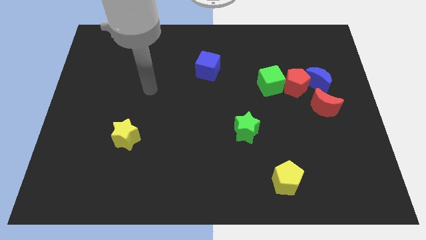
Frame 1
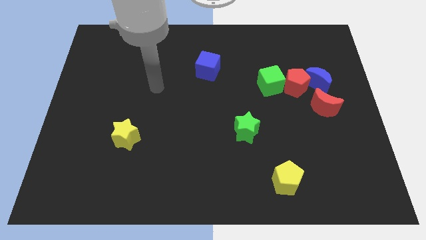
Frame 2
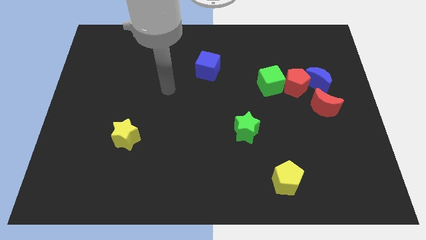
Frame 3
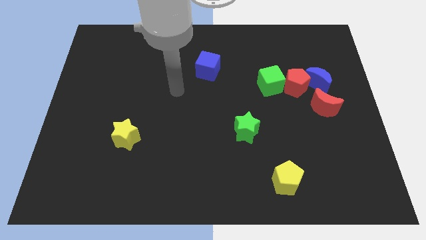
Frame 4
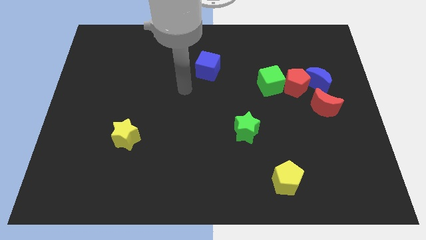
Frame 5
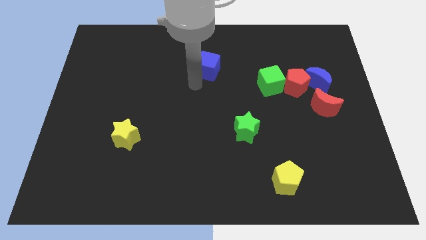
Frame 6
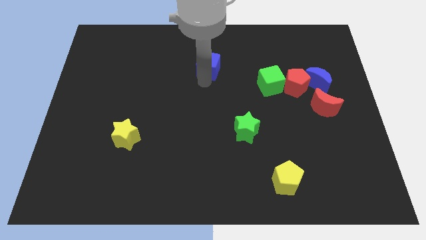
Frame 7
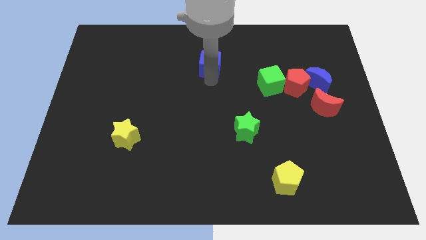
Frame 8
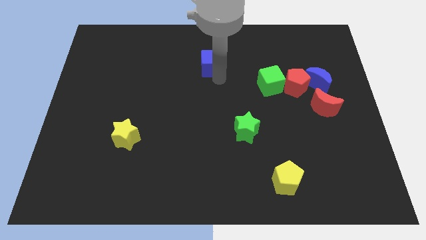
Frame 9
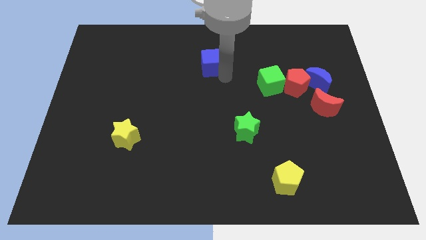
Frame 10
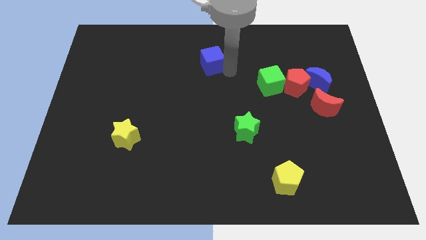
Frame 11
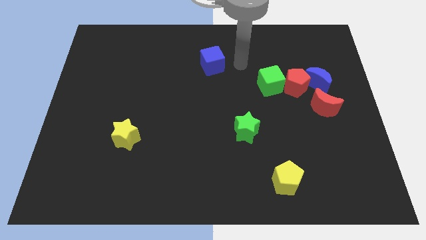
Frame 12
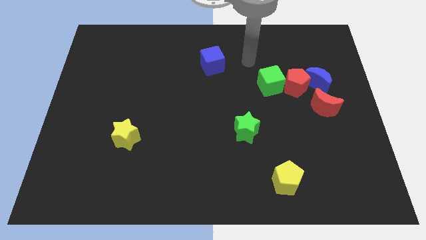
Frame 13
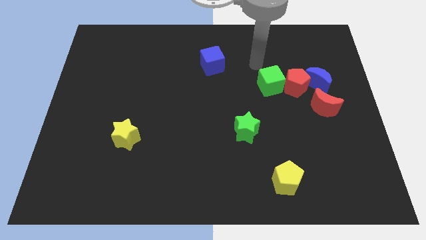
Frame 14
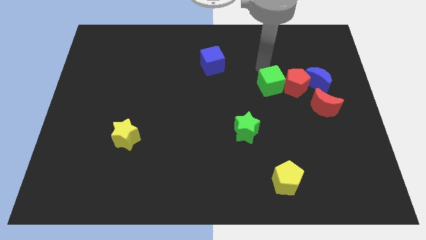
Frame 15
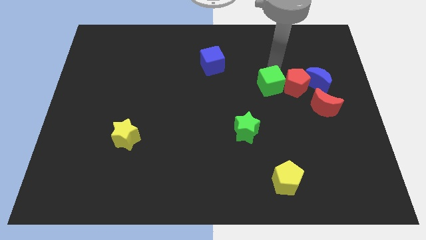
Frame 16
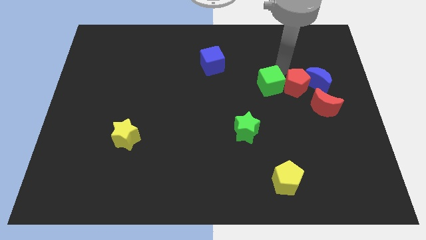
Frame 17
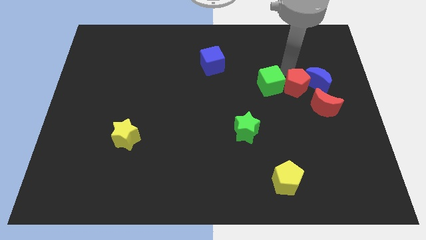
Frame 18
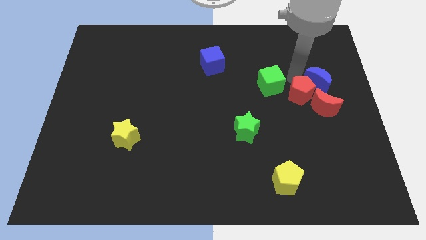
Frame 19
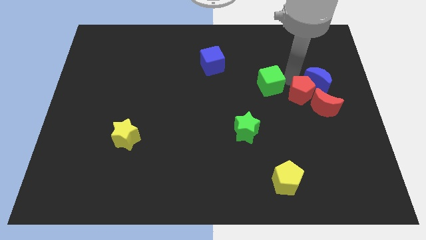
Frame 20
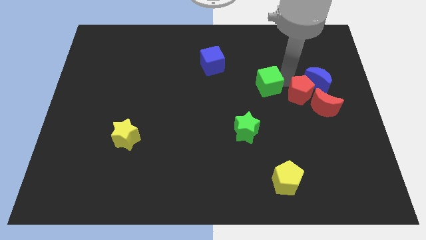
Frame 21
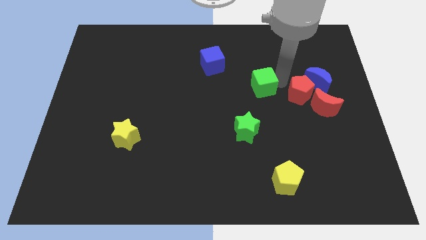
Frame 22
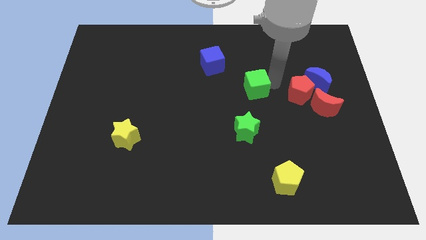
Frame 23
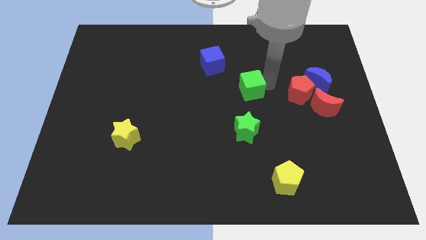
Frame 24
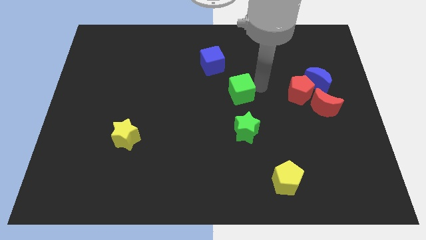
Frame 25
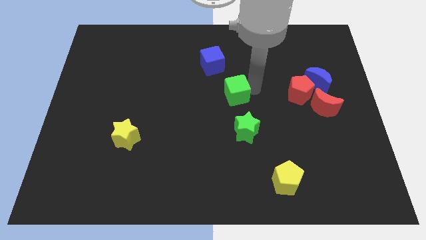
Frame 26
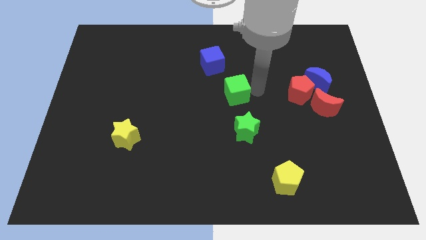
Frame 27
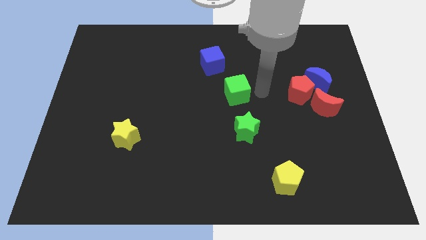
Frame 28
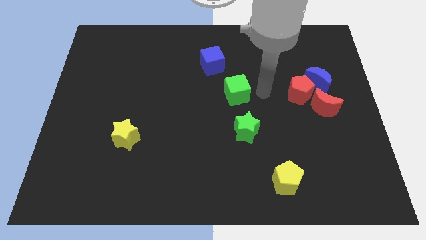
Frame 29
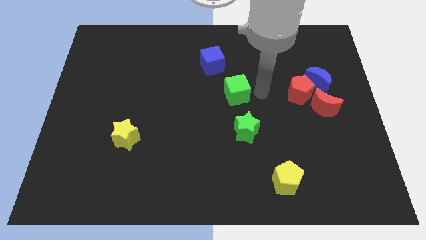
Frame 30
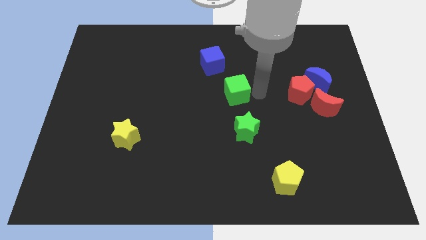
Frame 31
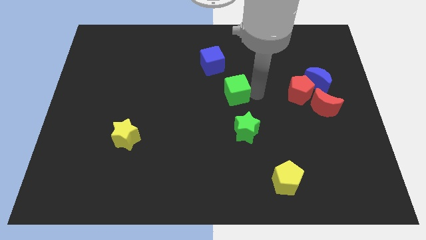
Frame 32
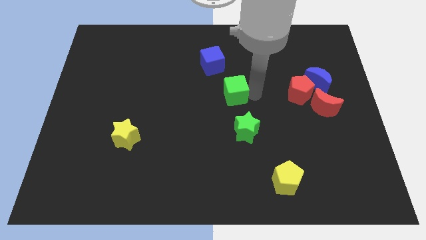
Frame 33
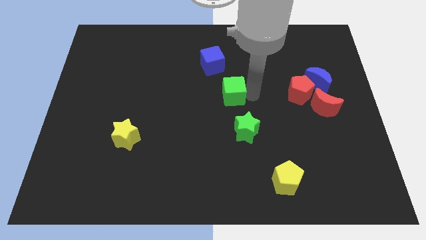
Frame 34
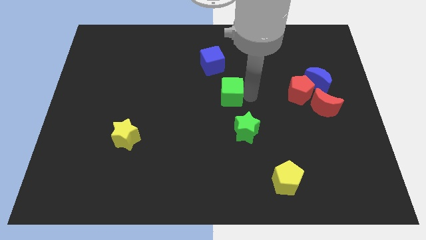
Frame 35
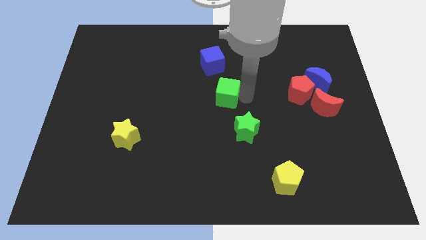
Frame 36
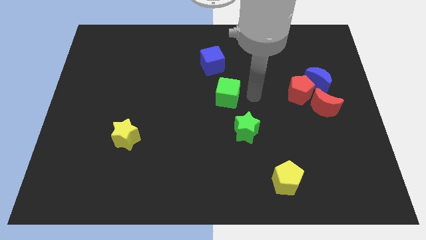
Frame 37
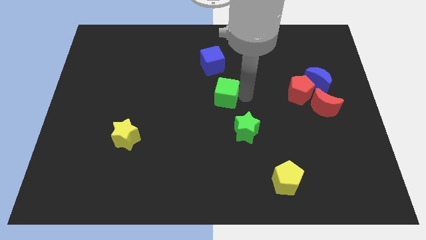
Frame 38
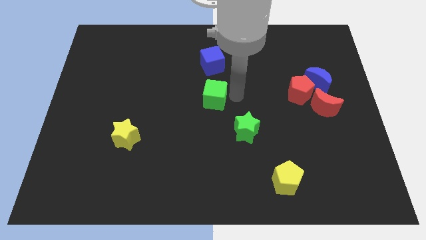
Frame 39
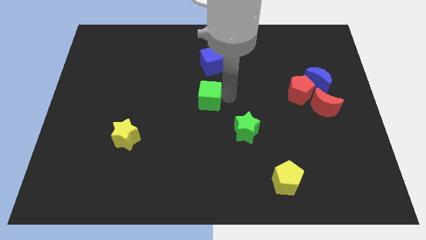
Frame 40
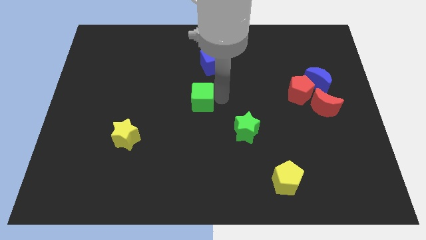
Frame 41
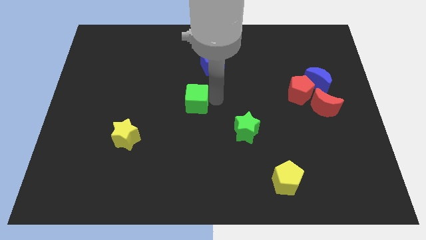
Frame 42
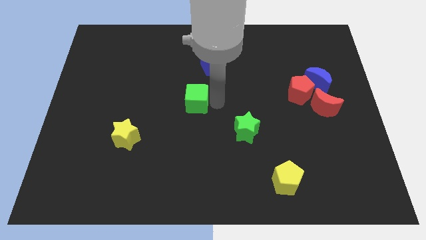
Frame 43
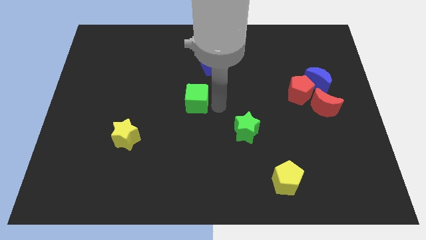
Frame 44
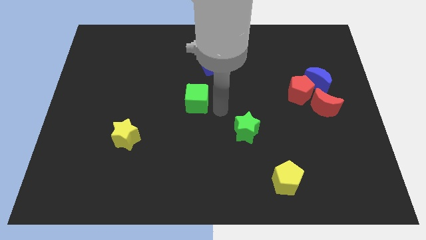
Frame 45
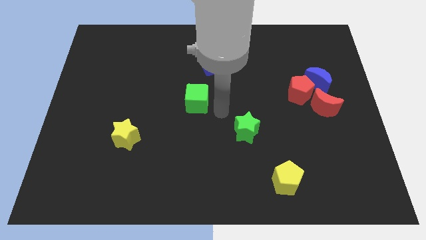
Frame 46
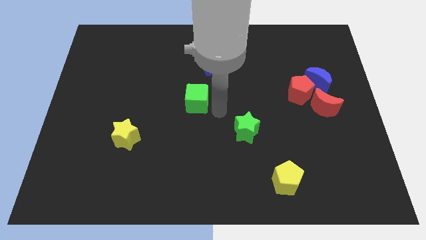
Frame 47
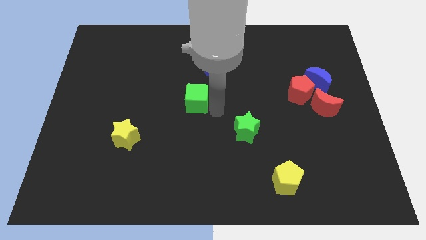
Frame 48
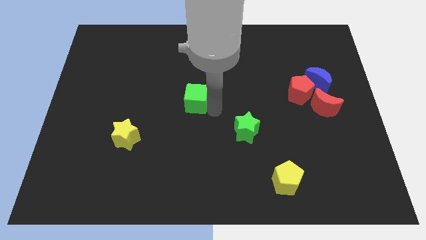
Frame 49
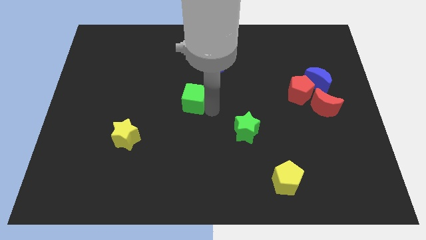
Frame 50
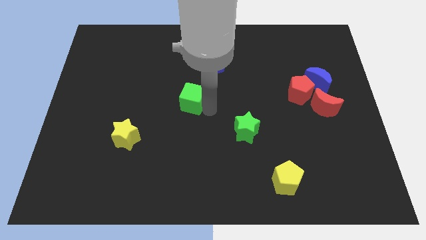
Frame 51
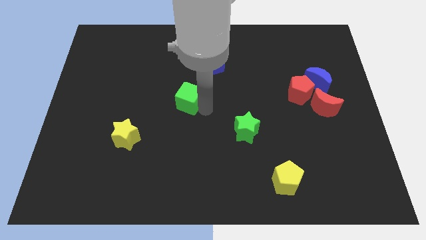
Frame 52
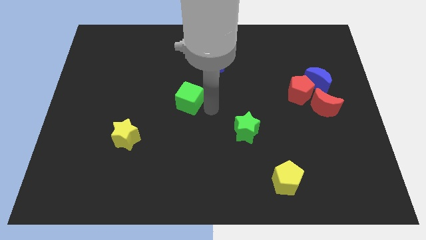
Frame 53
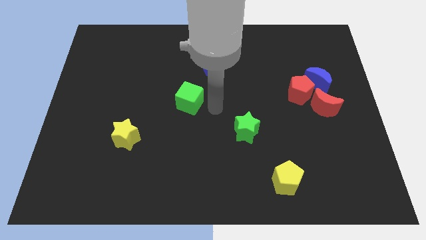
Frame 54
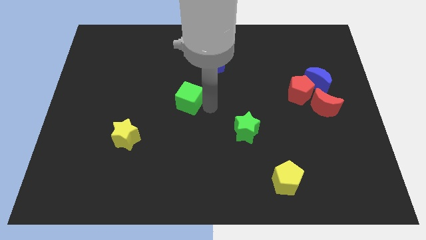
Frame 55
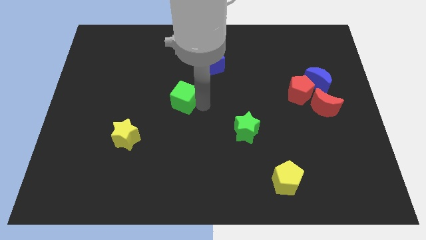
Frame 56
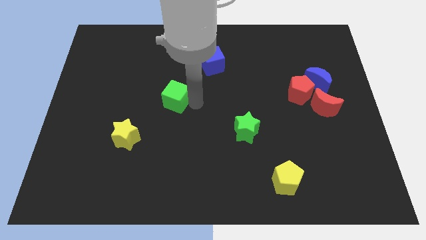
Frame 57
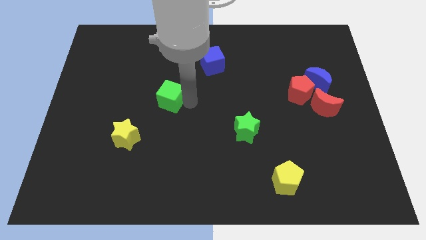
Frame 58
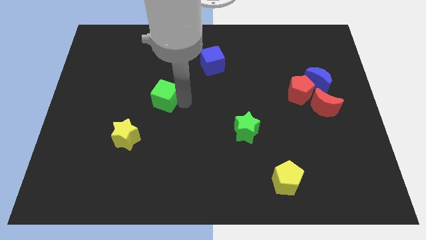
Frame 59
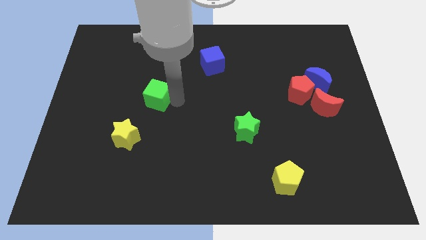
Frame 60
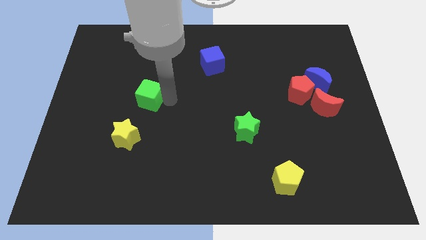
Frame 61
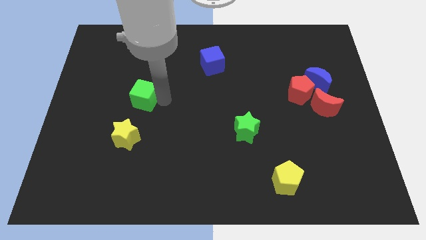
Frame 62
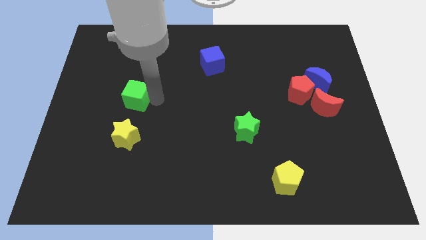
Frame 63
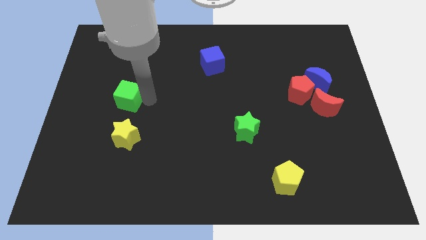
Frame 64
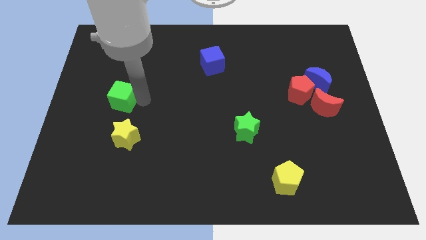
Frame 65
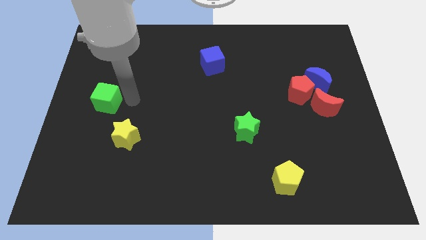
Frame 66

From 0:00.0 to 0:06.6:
push the green cube to the left side of the board
